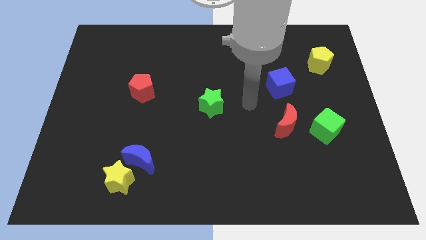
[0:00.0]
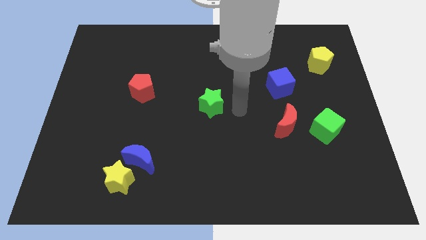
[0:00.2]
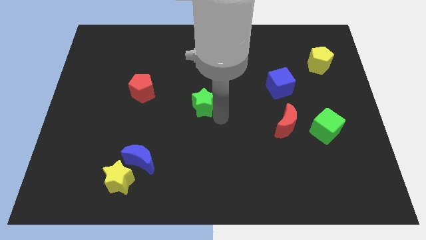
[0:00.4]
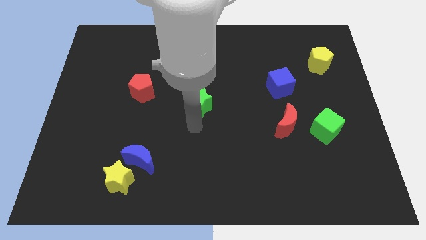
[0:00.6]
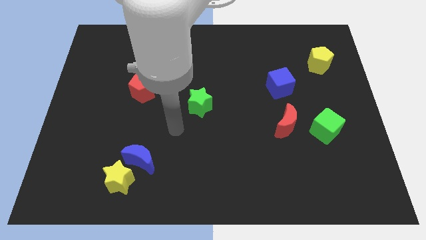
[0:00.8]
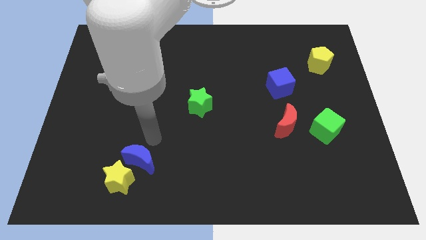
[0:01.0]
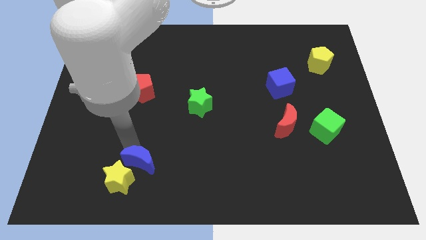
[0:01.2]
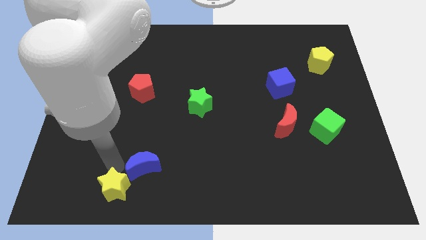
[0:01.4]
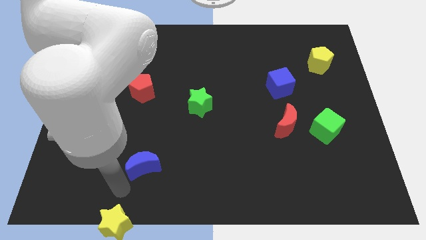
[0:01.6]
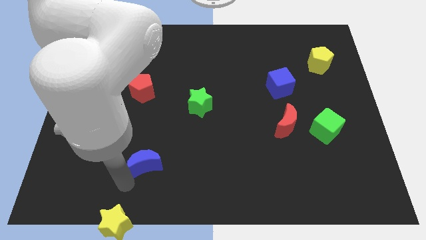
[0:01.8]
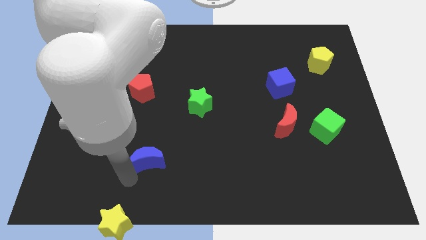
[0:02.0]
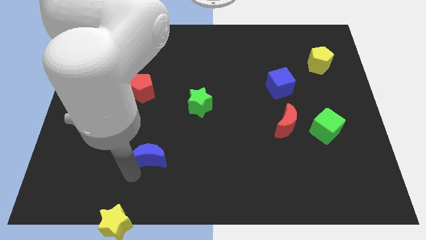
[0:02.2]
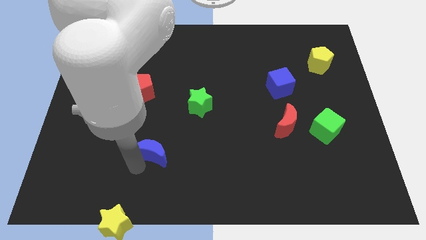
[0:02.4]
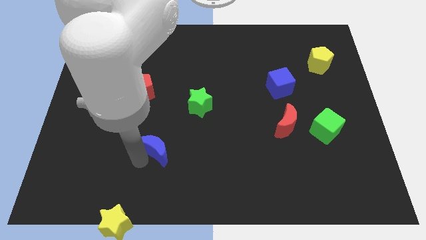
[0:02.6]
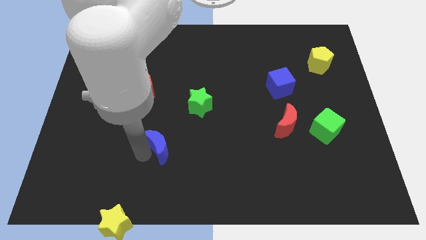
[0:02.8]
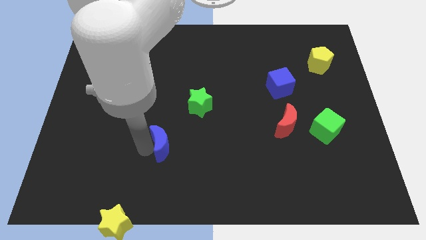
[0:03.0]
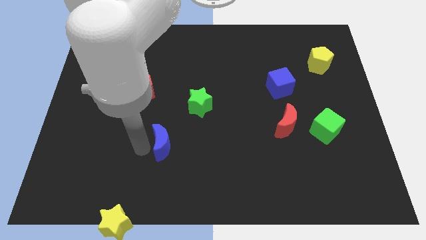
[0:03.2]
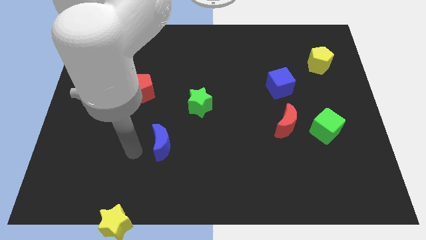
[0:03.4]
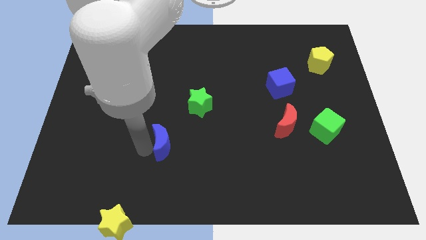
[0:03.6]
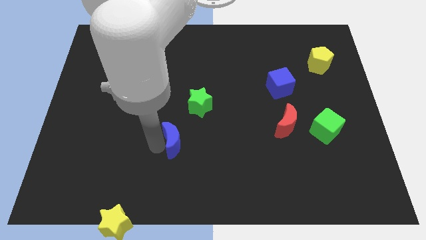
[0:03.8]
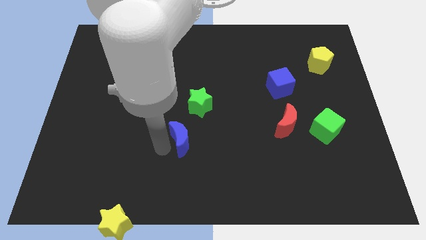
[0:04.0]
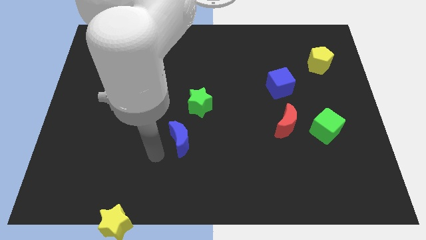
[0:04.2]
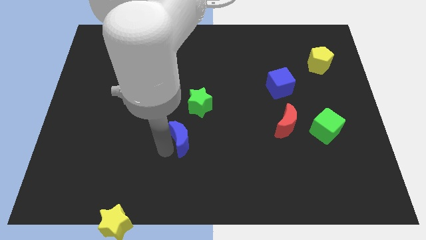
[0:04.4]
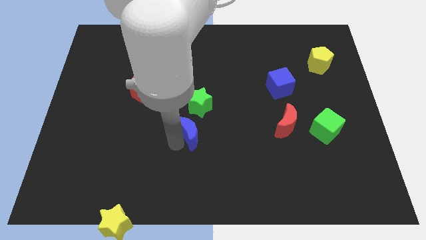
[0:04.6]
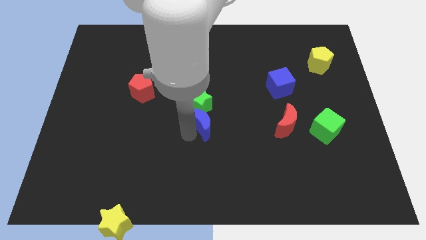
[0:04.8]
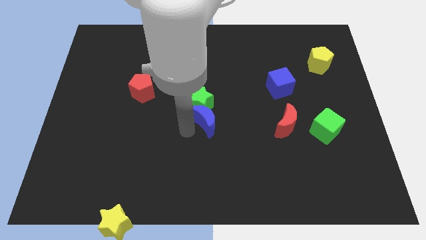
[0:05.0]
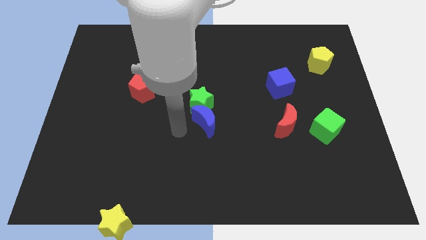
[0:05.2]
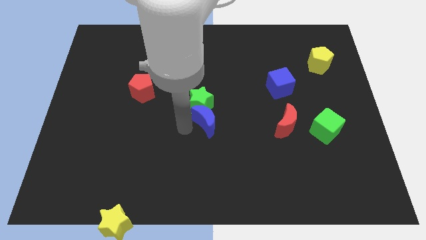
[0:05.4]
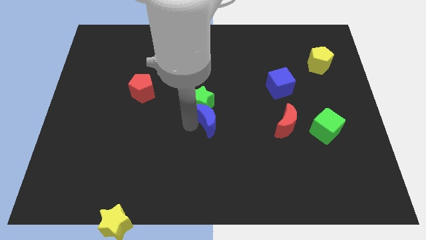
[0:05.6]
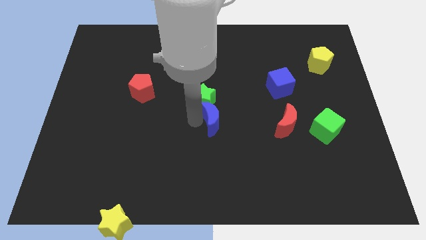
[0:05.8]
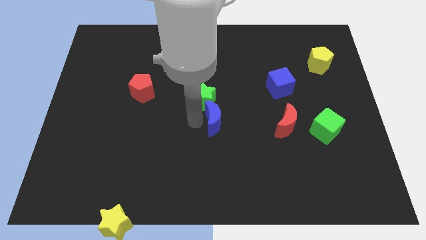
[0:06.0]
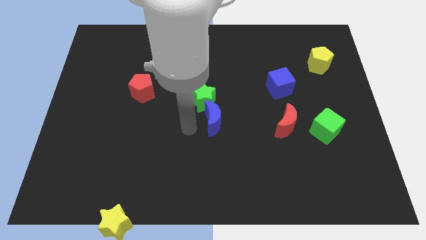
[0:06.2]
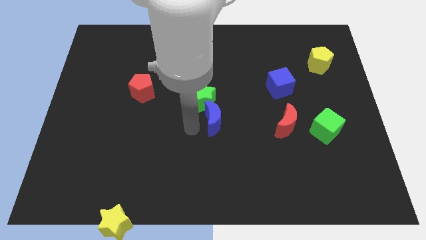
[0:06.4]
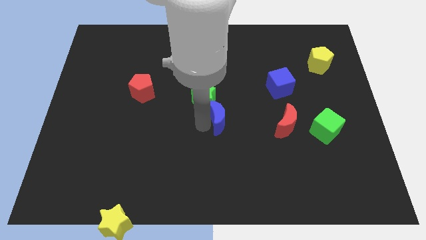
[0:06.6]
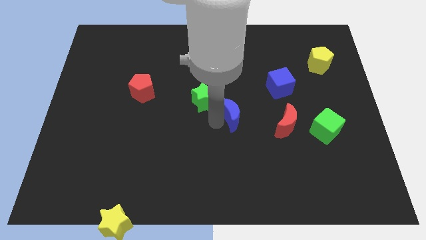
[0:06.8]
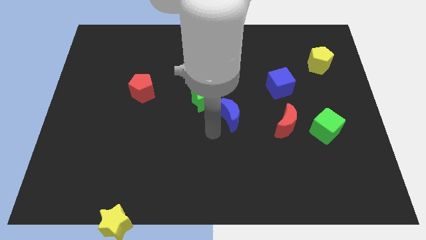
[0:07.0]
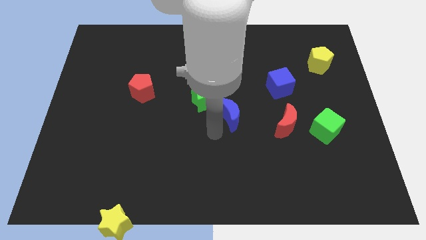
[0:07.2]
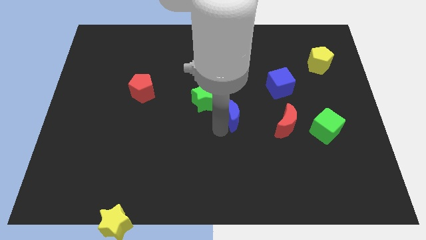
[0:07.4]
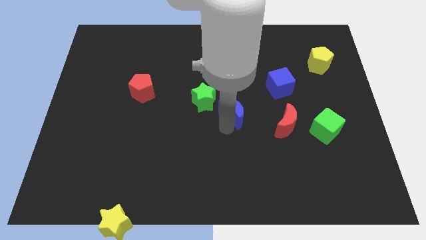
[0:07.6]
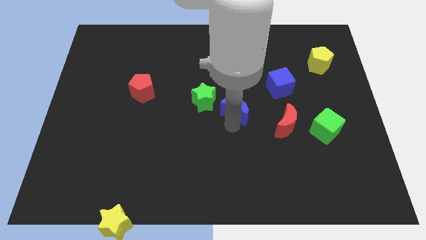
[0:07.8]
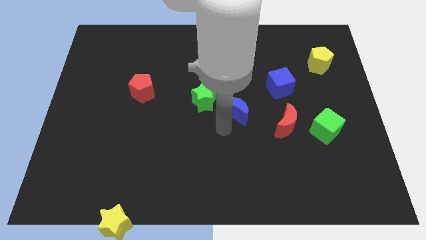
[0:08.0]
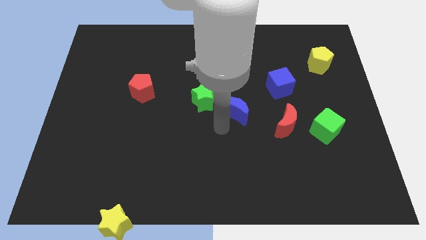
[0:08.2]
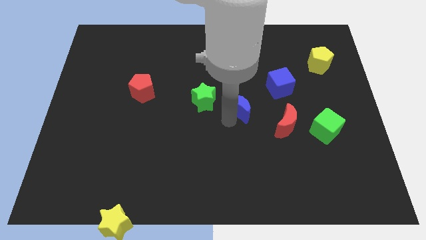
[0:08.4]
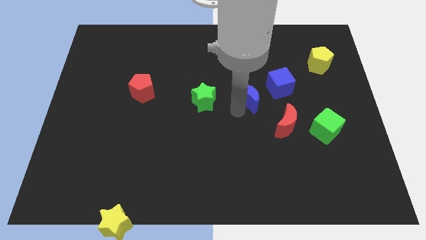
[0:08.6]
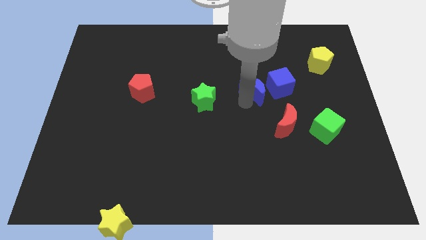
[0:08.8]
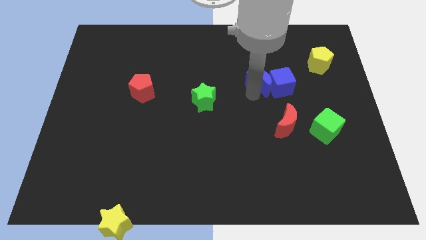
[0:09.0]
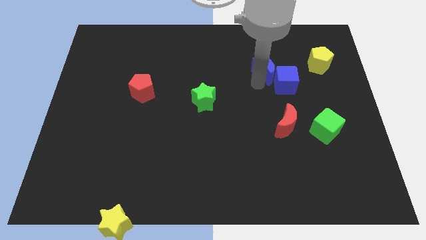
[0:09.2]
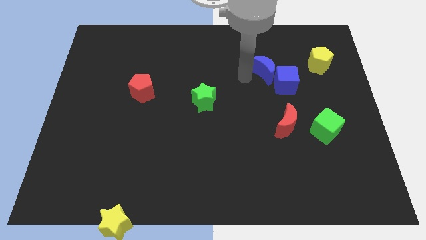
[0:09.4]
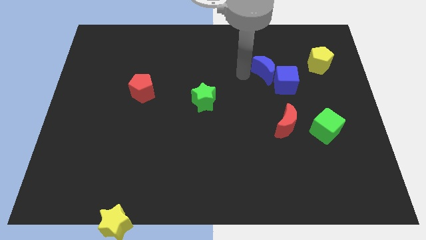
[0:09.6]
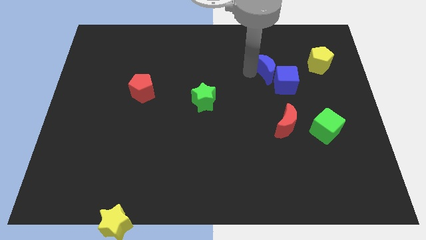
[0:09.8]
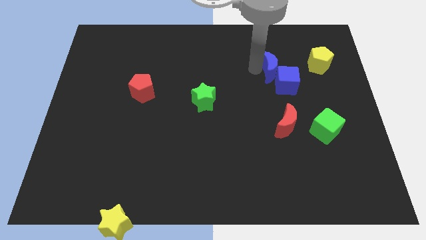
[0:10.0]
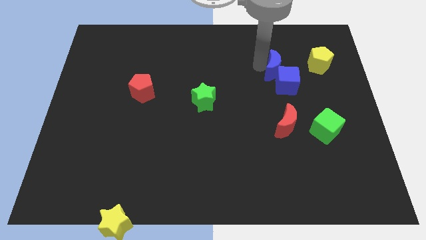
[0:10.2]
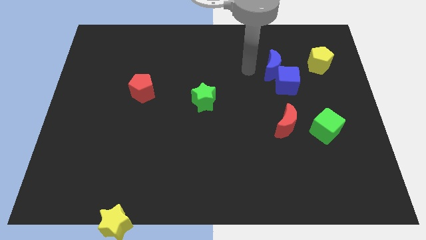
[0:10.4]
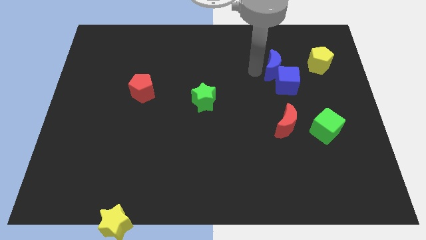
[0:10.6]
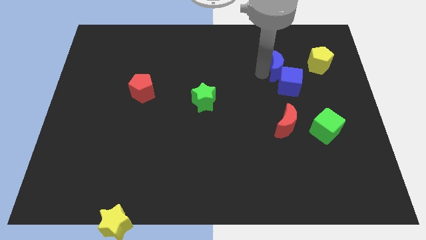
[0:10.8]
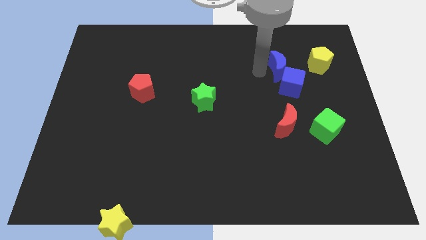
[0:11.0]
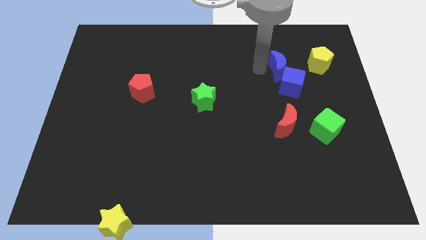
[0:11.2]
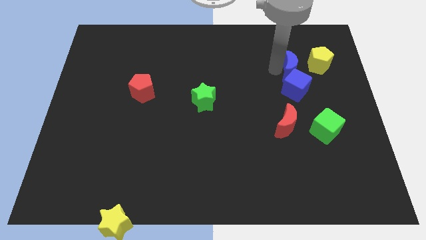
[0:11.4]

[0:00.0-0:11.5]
move the blue moon to the top right of the blue cube

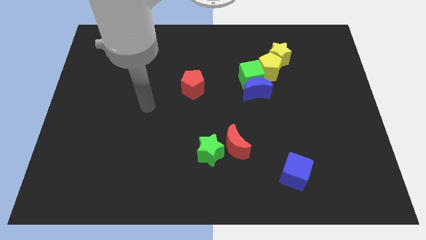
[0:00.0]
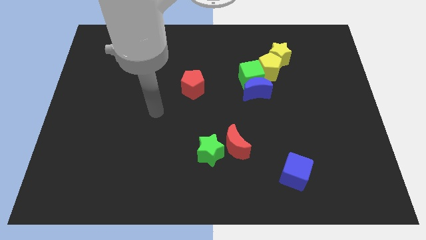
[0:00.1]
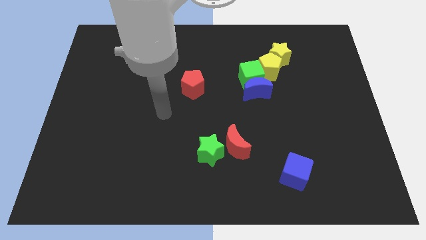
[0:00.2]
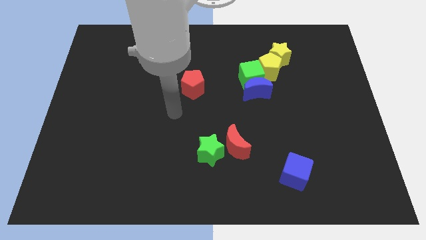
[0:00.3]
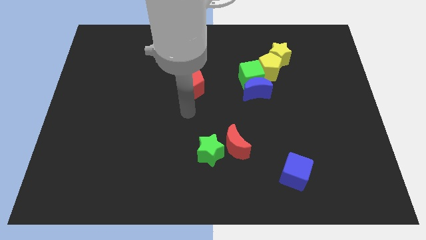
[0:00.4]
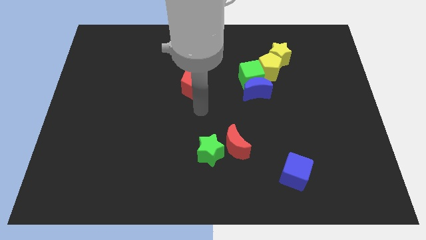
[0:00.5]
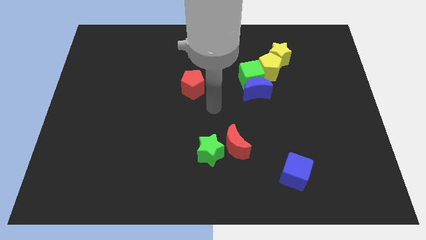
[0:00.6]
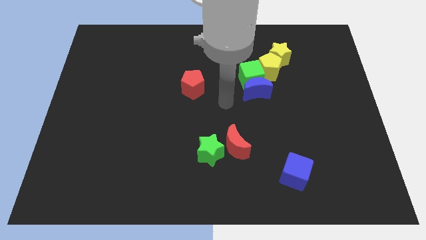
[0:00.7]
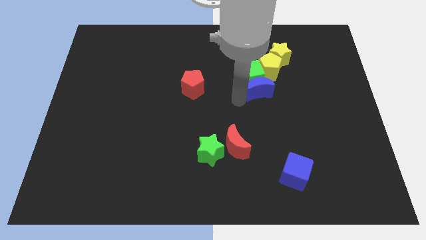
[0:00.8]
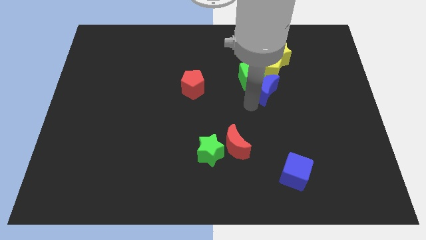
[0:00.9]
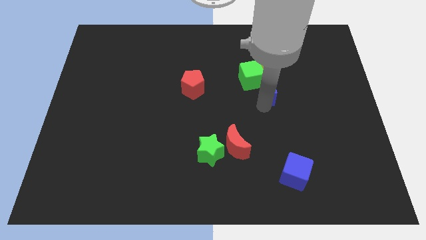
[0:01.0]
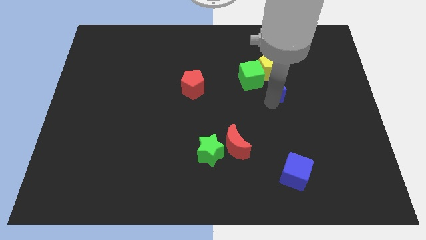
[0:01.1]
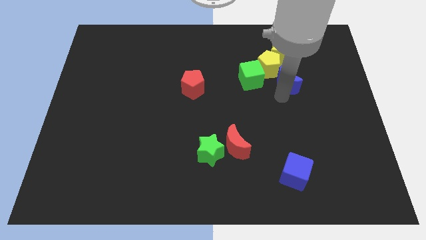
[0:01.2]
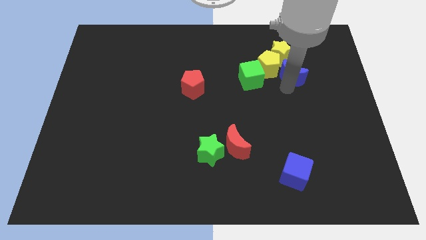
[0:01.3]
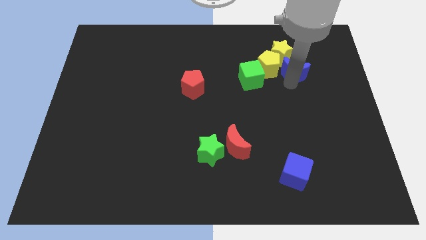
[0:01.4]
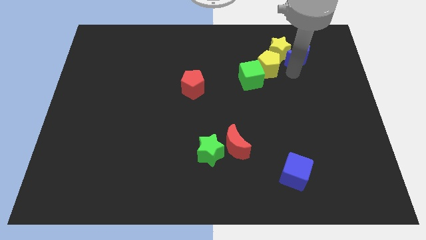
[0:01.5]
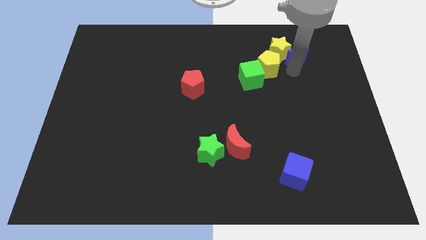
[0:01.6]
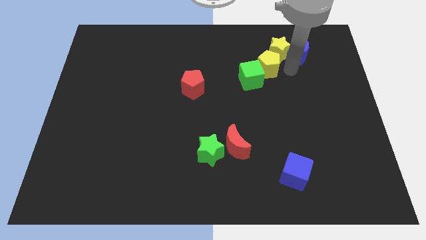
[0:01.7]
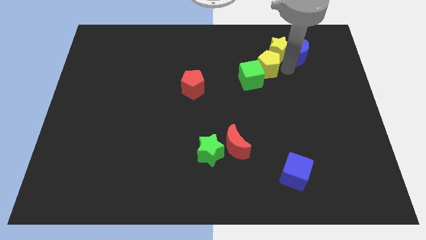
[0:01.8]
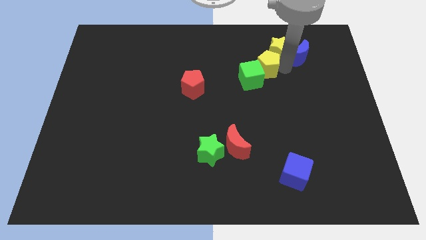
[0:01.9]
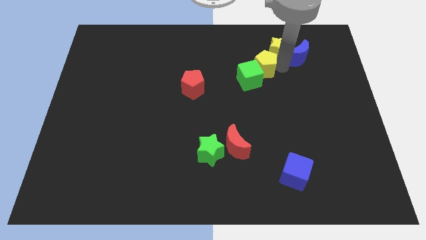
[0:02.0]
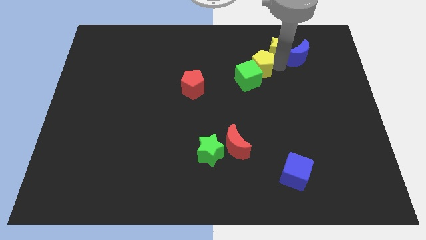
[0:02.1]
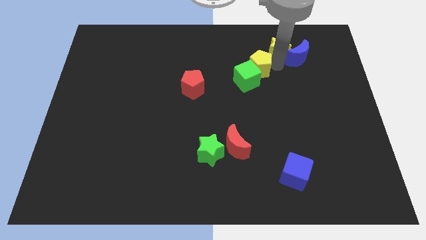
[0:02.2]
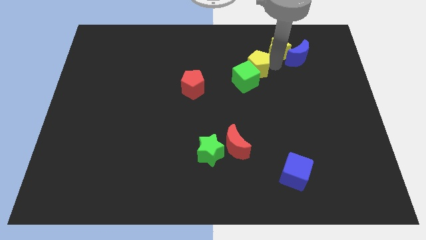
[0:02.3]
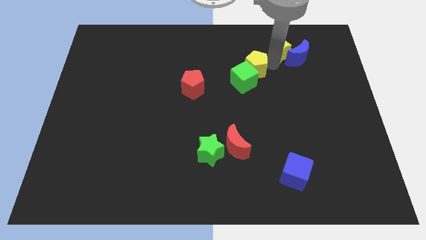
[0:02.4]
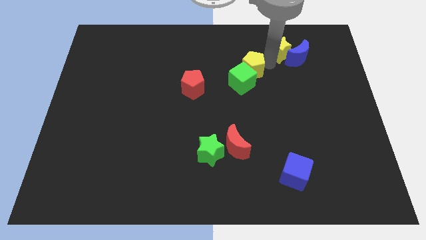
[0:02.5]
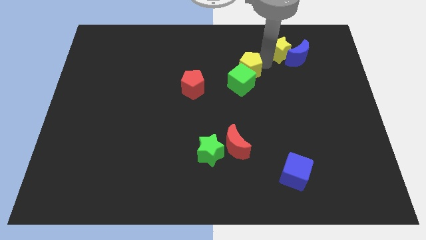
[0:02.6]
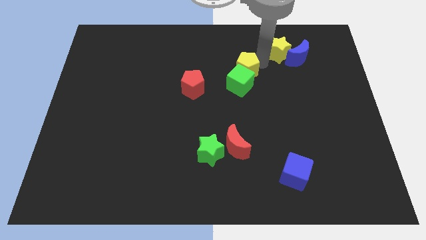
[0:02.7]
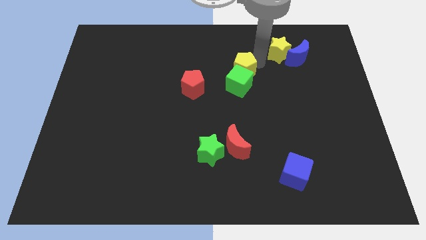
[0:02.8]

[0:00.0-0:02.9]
move the yellow pentagon to the top left of the green cube
